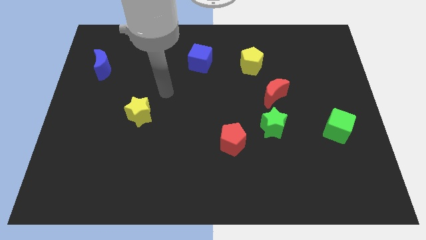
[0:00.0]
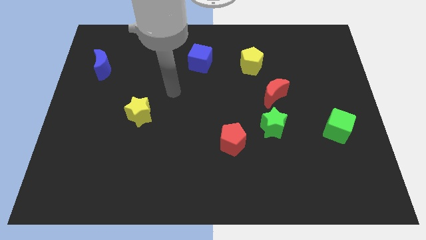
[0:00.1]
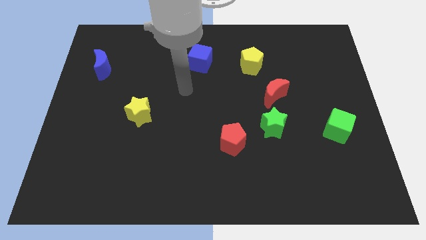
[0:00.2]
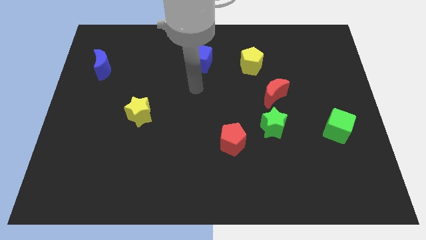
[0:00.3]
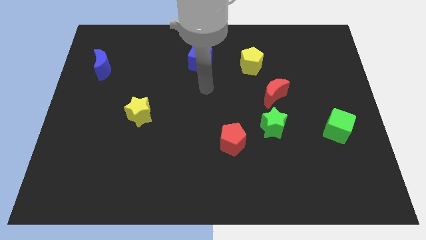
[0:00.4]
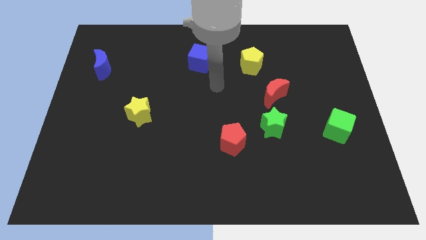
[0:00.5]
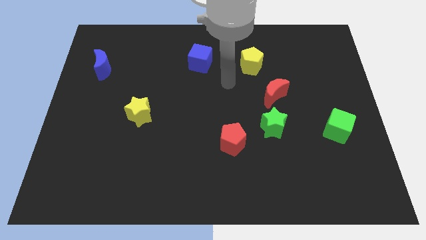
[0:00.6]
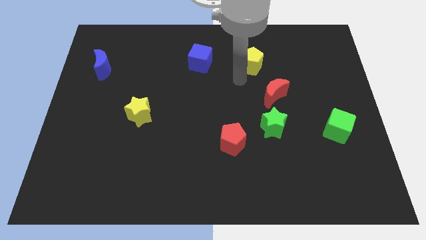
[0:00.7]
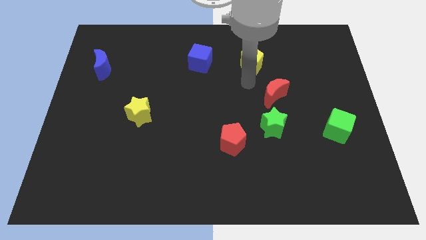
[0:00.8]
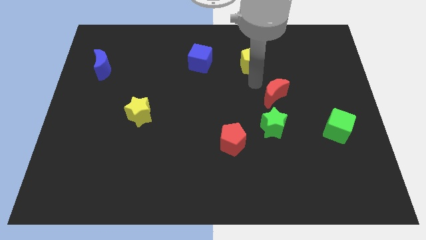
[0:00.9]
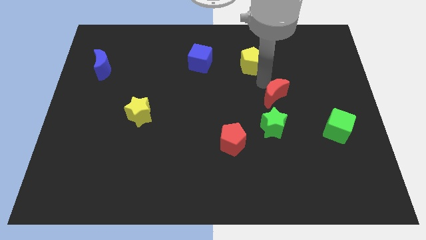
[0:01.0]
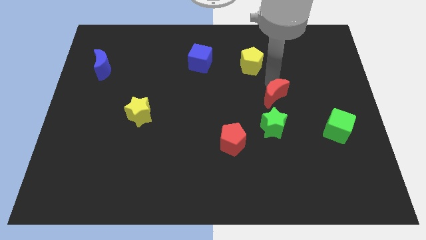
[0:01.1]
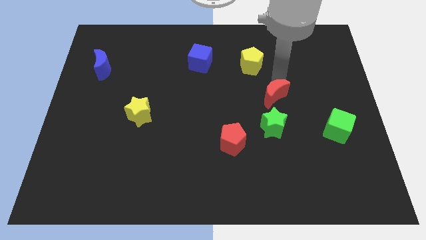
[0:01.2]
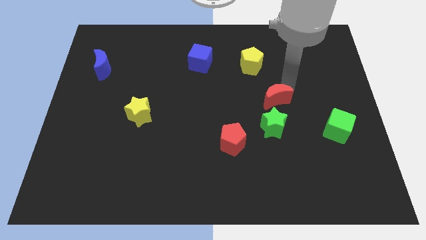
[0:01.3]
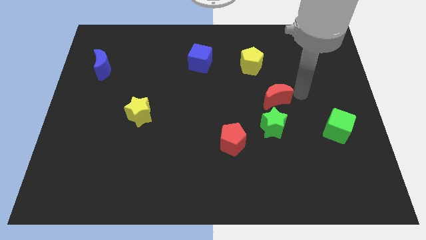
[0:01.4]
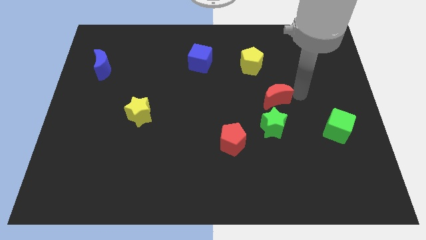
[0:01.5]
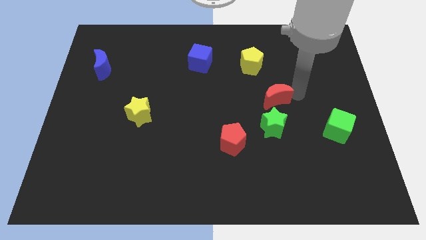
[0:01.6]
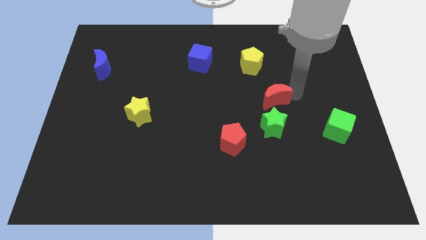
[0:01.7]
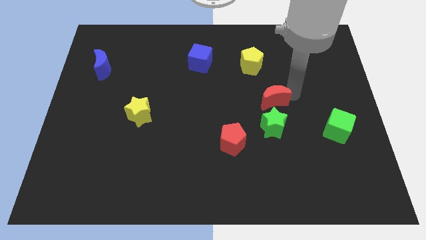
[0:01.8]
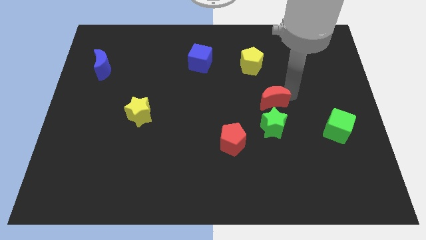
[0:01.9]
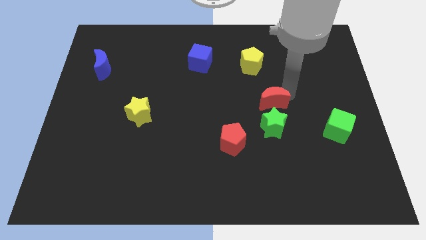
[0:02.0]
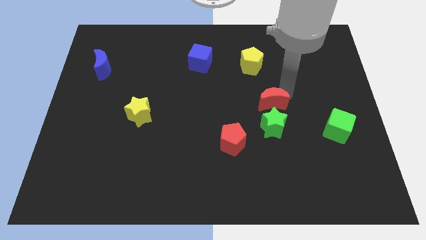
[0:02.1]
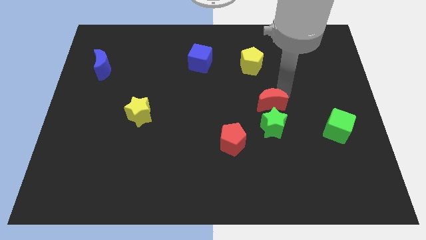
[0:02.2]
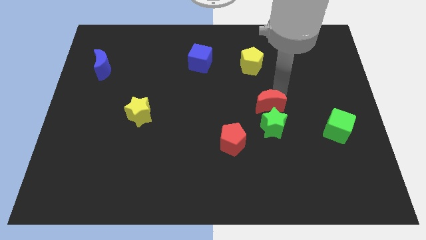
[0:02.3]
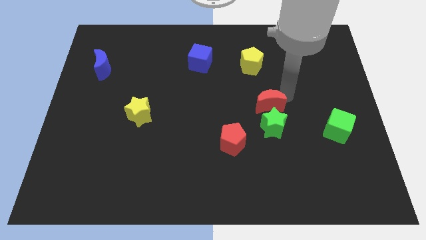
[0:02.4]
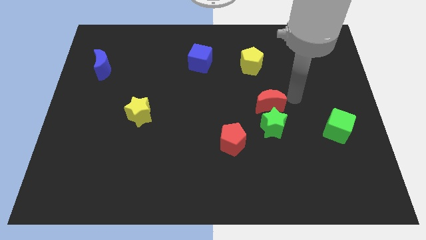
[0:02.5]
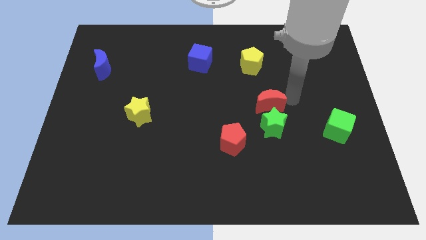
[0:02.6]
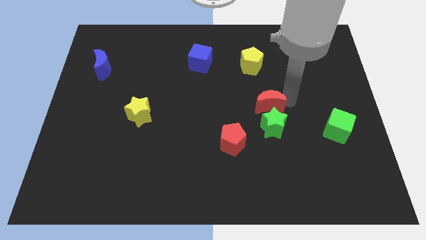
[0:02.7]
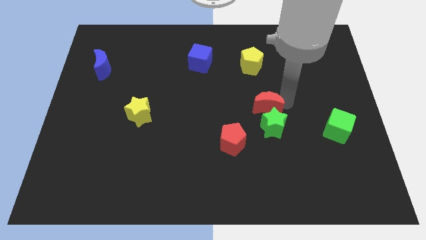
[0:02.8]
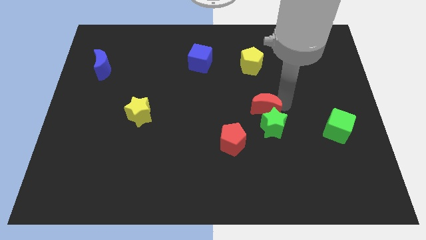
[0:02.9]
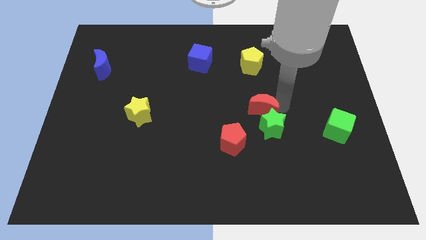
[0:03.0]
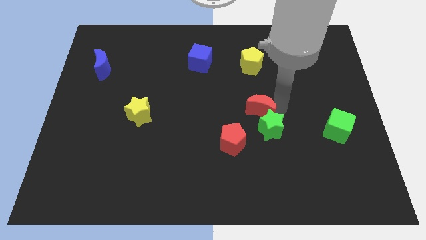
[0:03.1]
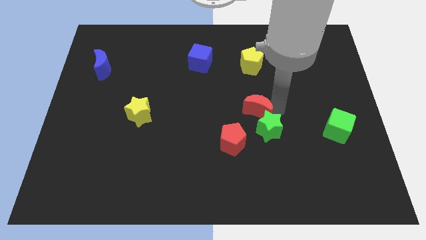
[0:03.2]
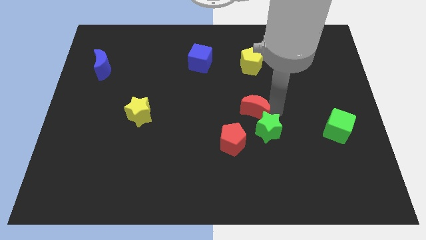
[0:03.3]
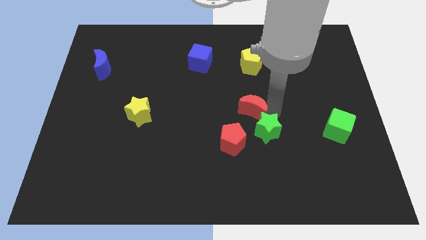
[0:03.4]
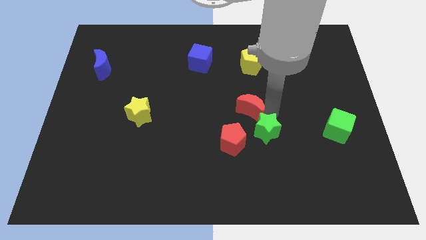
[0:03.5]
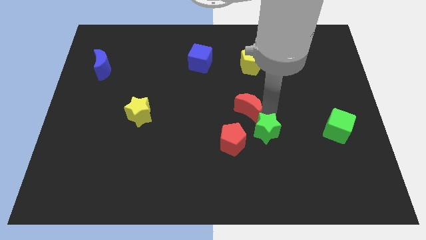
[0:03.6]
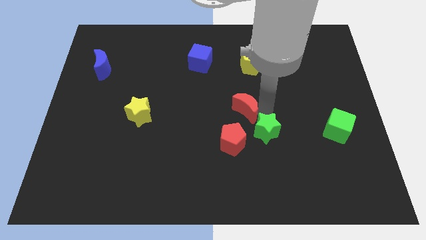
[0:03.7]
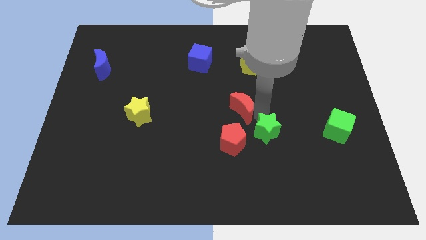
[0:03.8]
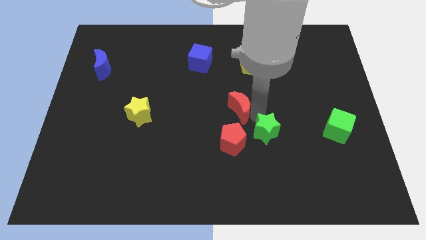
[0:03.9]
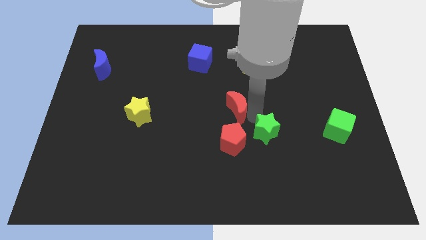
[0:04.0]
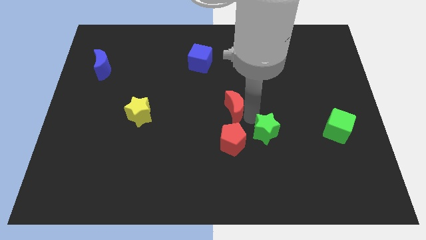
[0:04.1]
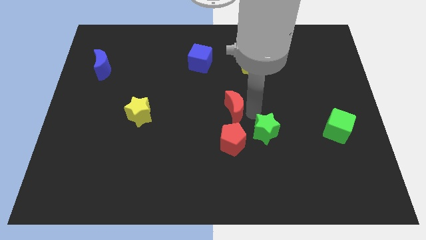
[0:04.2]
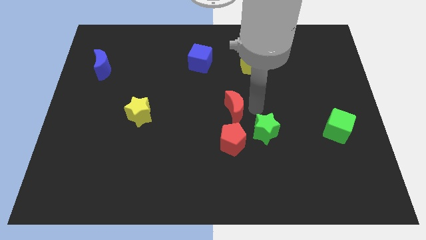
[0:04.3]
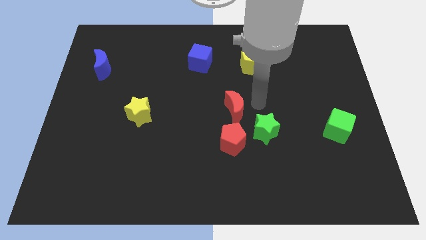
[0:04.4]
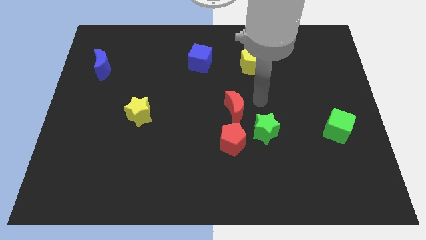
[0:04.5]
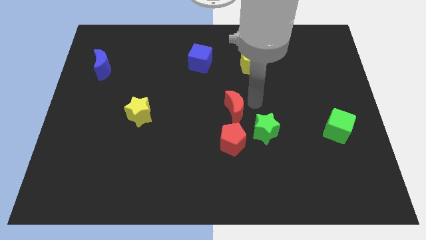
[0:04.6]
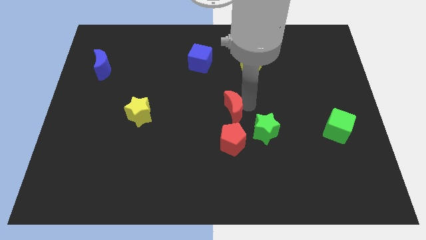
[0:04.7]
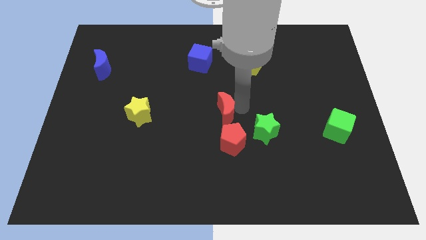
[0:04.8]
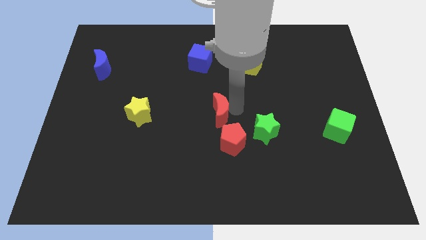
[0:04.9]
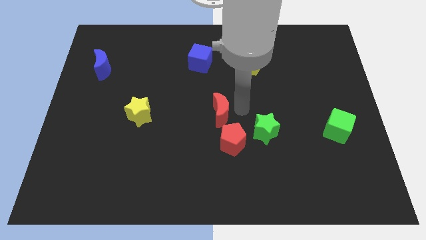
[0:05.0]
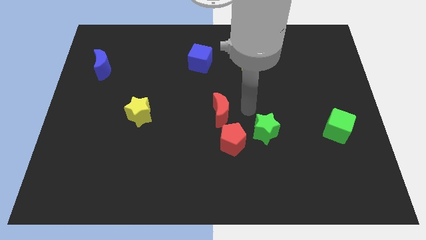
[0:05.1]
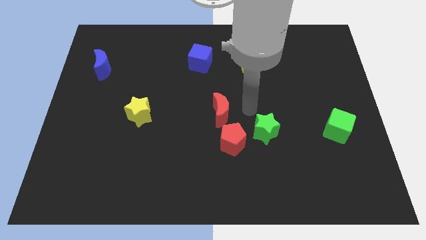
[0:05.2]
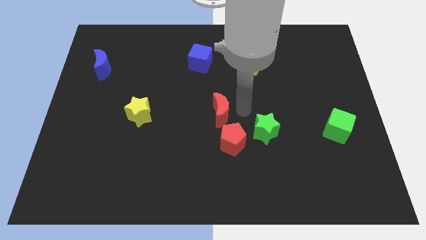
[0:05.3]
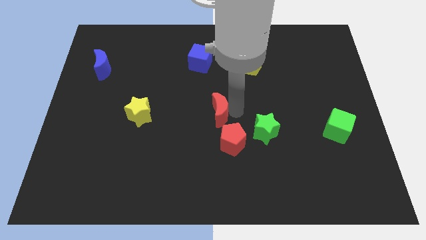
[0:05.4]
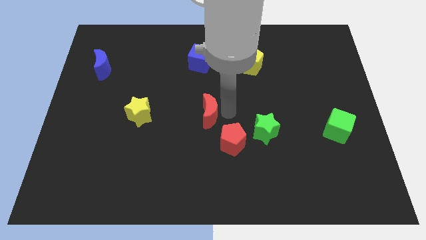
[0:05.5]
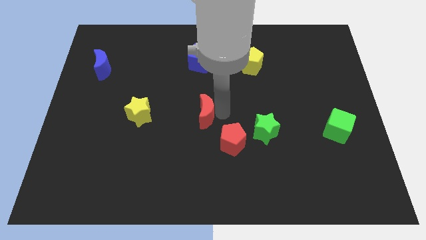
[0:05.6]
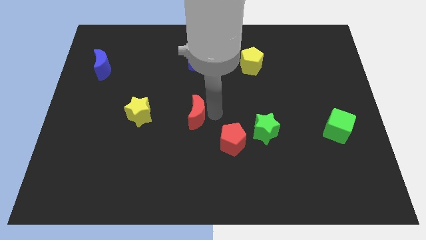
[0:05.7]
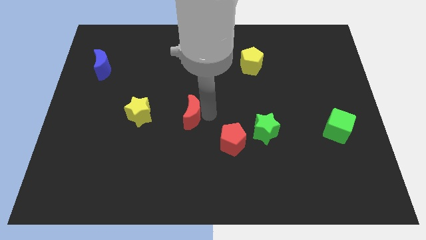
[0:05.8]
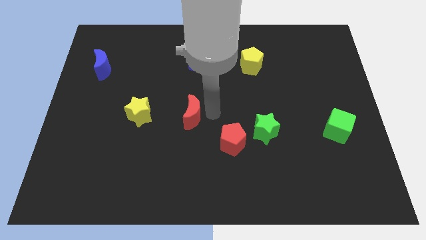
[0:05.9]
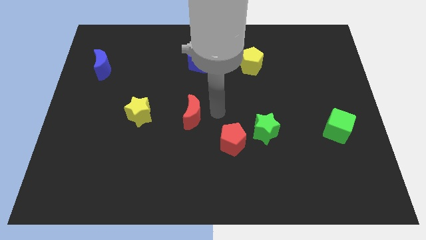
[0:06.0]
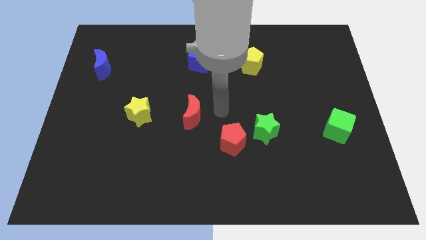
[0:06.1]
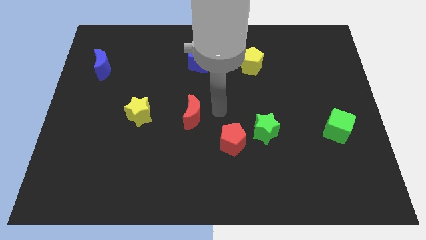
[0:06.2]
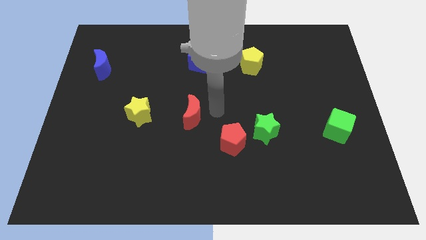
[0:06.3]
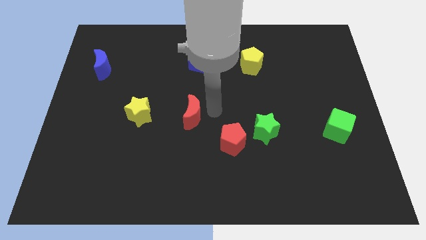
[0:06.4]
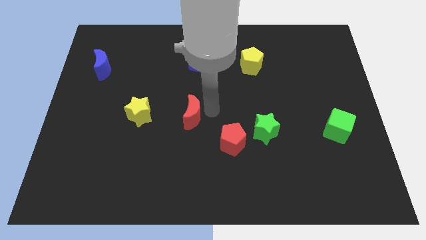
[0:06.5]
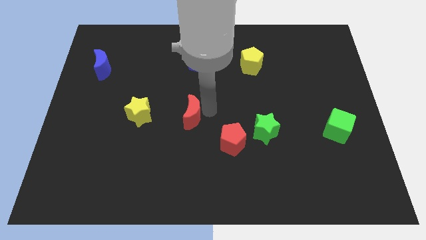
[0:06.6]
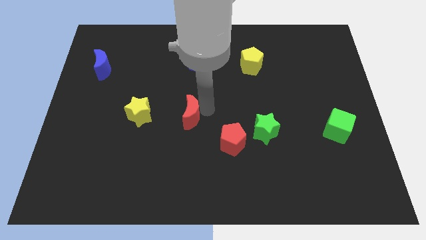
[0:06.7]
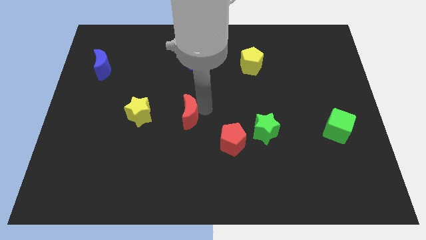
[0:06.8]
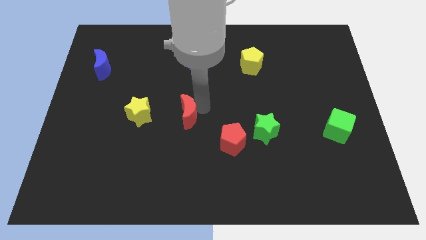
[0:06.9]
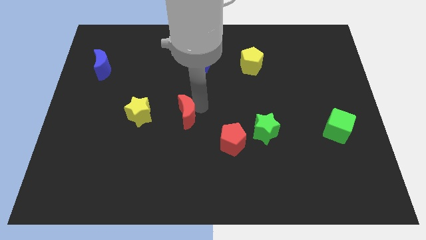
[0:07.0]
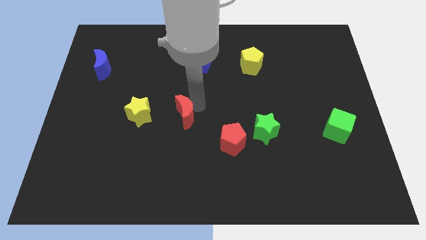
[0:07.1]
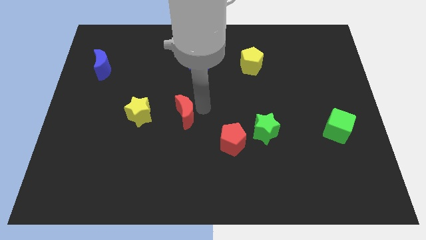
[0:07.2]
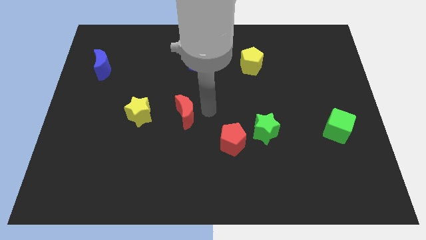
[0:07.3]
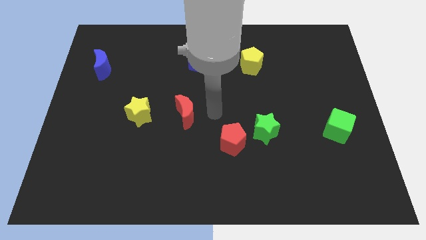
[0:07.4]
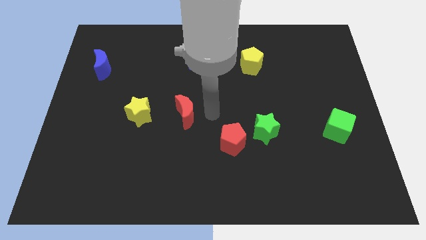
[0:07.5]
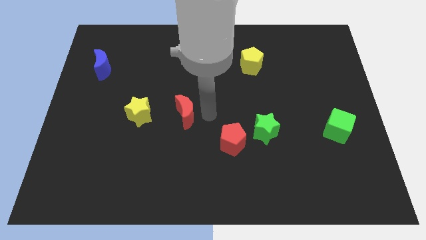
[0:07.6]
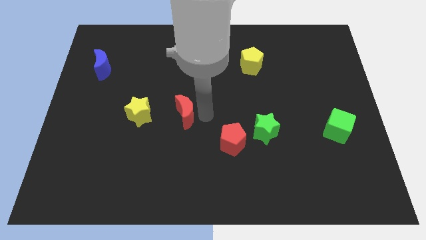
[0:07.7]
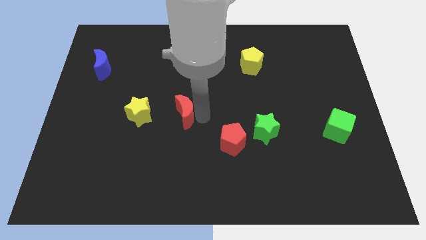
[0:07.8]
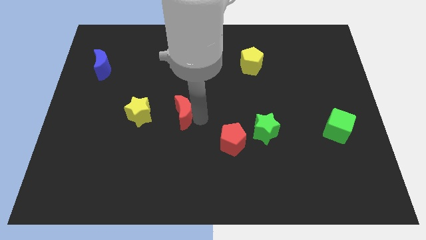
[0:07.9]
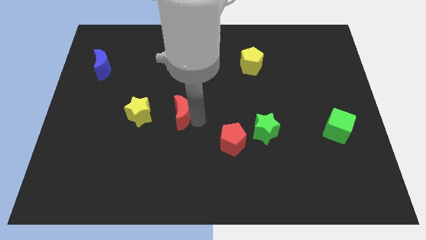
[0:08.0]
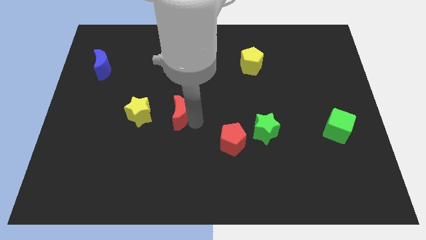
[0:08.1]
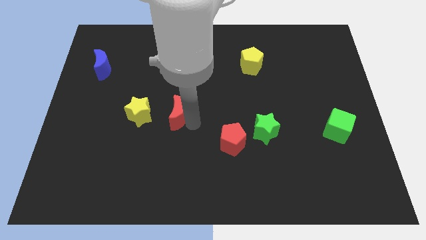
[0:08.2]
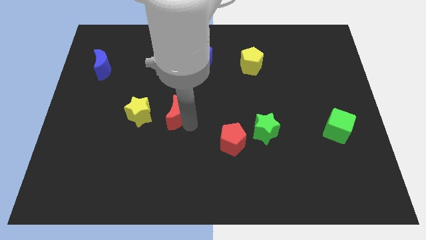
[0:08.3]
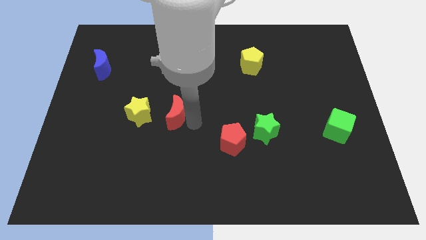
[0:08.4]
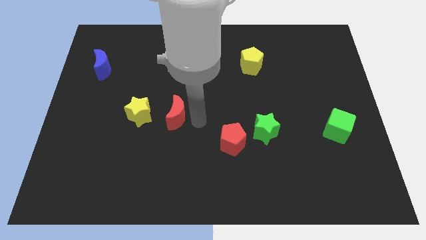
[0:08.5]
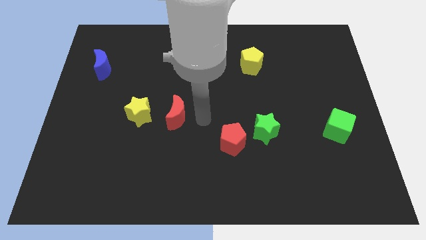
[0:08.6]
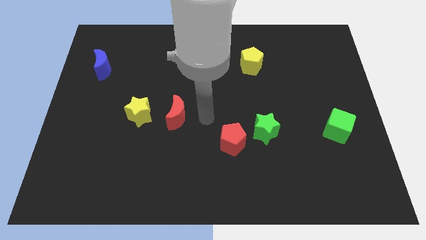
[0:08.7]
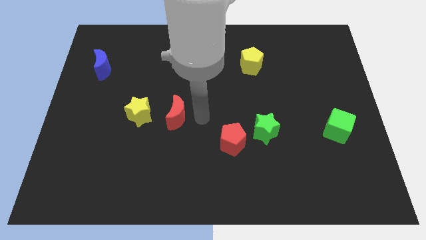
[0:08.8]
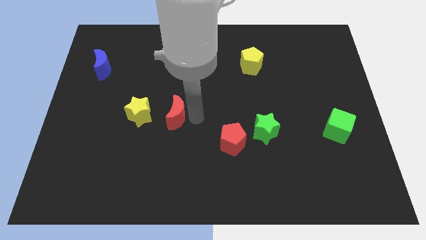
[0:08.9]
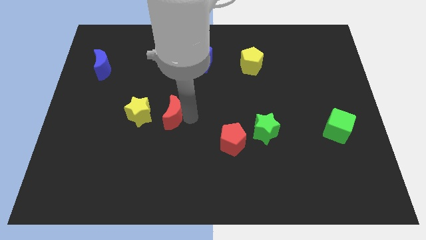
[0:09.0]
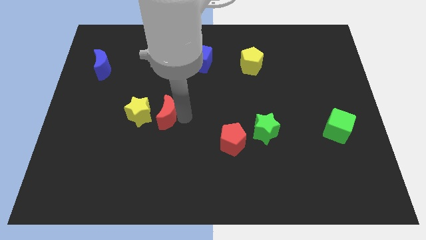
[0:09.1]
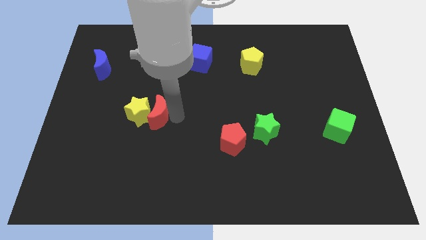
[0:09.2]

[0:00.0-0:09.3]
push the red moon next to the yellow star
